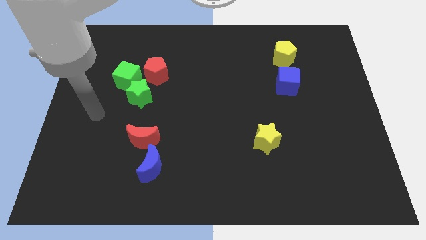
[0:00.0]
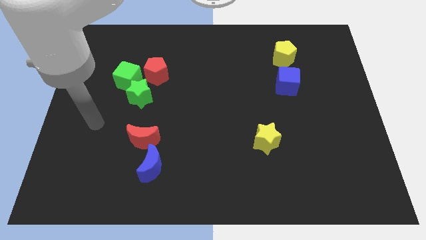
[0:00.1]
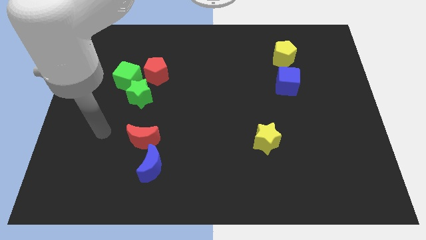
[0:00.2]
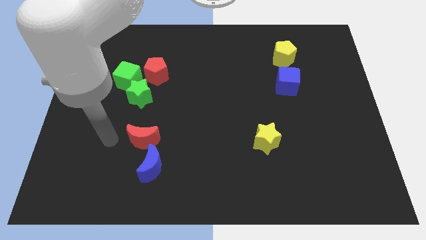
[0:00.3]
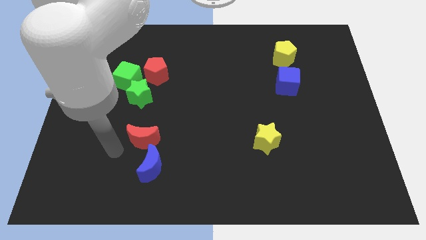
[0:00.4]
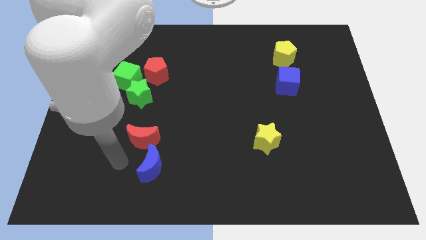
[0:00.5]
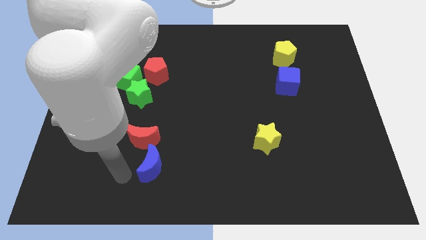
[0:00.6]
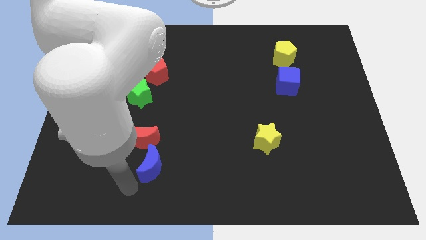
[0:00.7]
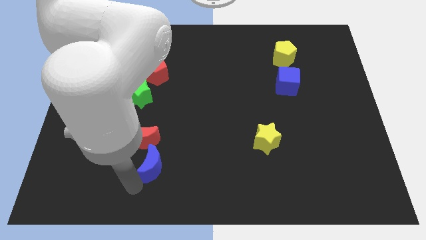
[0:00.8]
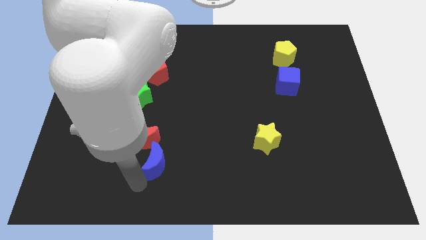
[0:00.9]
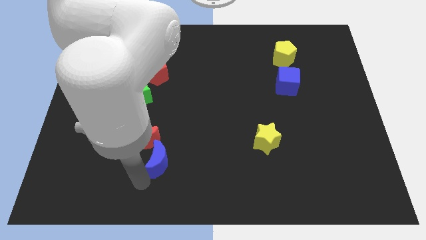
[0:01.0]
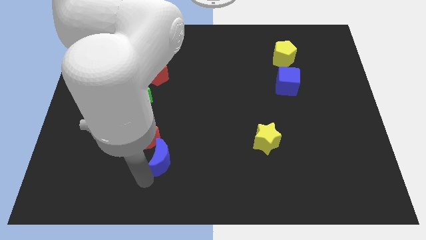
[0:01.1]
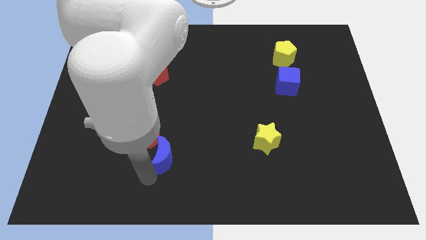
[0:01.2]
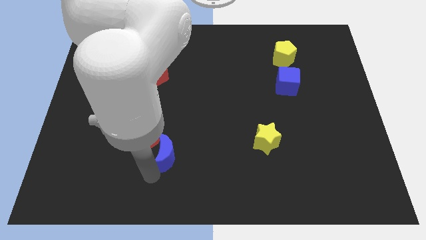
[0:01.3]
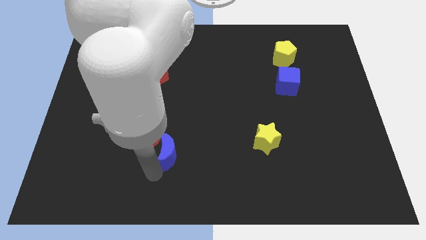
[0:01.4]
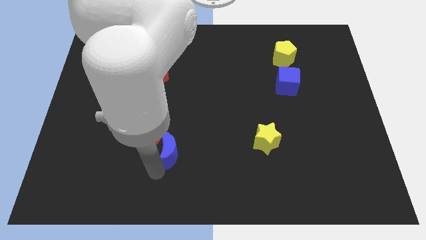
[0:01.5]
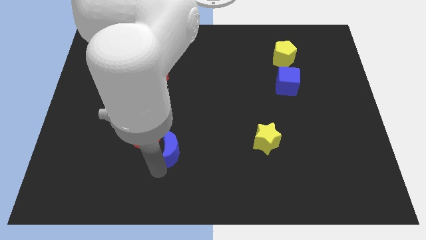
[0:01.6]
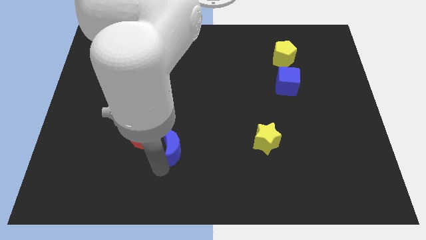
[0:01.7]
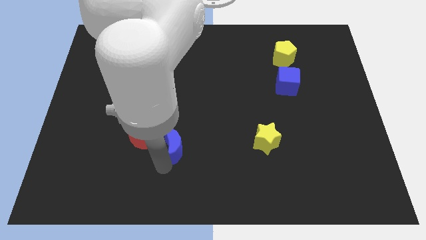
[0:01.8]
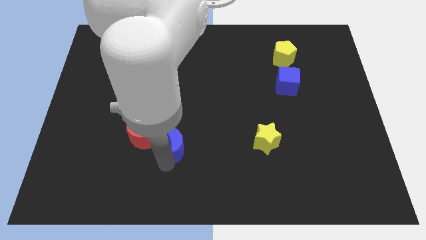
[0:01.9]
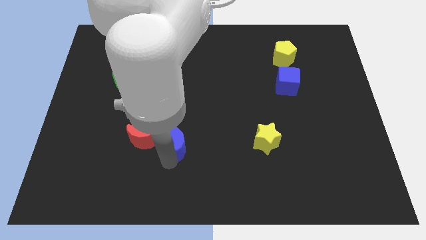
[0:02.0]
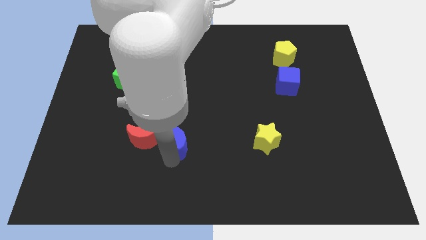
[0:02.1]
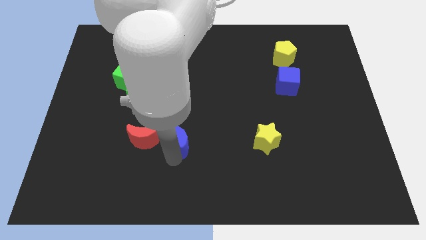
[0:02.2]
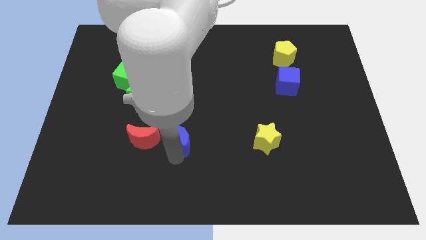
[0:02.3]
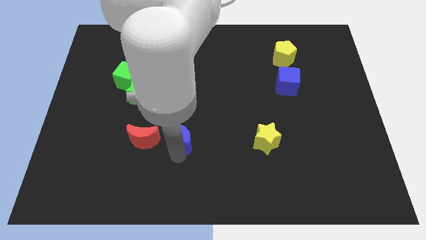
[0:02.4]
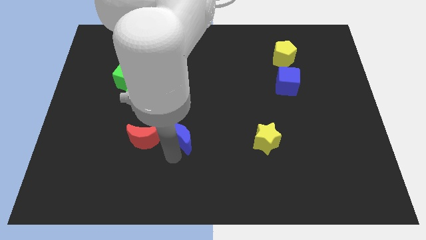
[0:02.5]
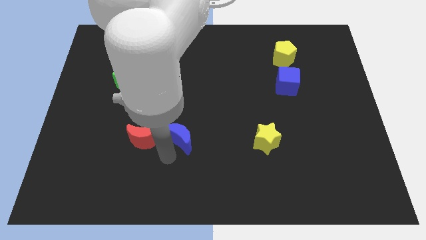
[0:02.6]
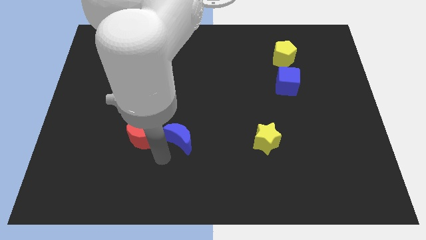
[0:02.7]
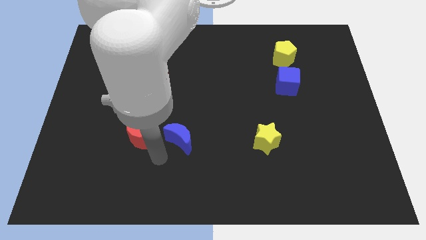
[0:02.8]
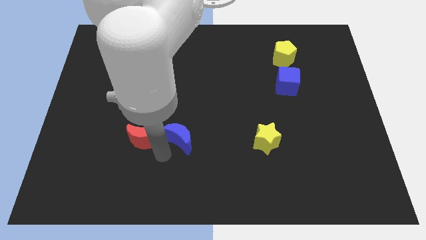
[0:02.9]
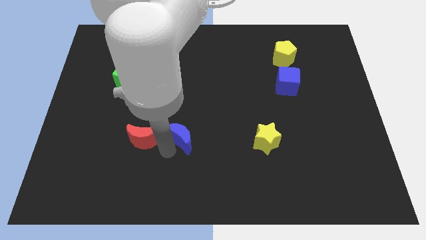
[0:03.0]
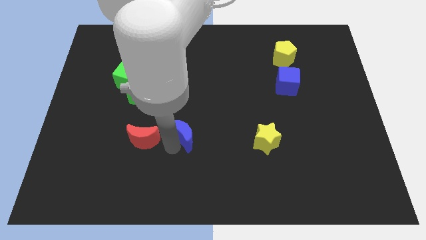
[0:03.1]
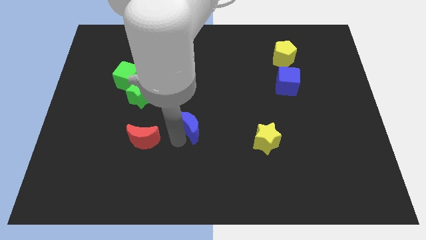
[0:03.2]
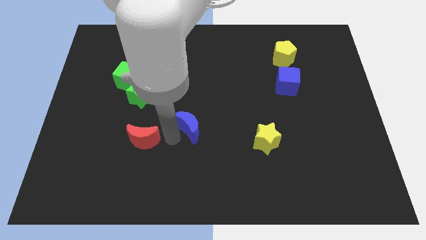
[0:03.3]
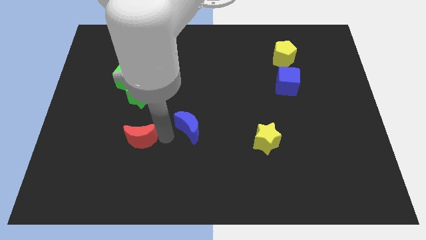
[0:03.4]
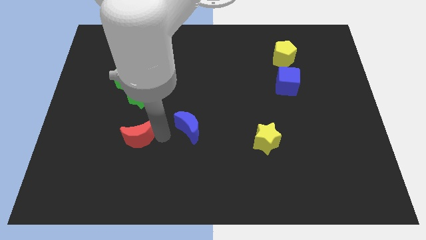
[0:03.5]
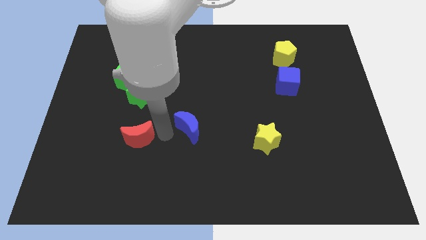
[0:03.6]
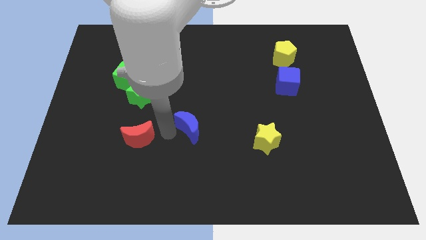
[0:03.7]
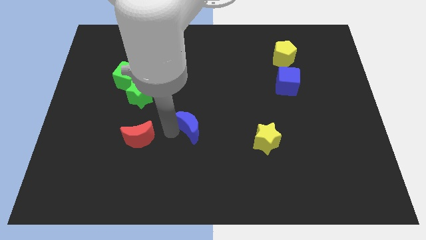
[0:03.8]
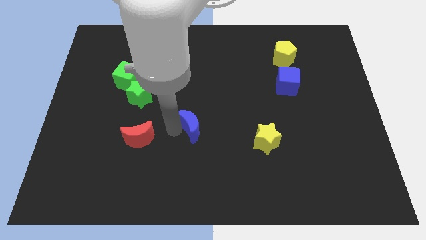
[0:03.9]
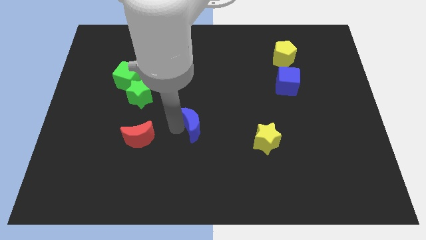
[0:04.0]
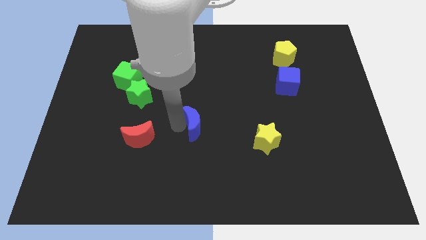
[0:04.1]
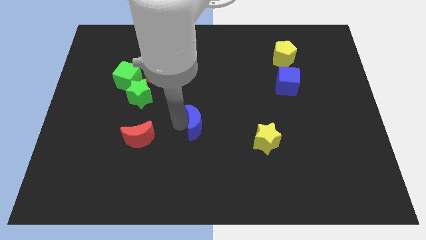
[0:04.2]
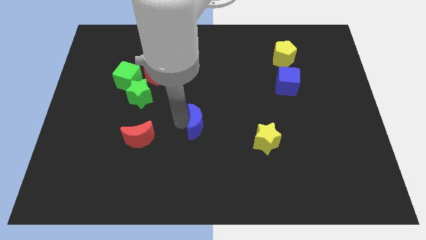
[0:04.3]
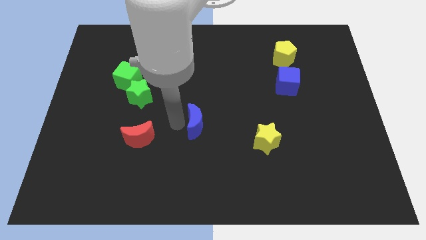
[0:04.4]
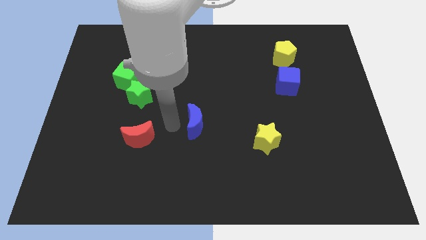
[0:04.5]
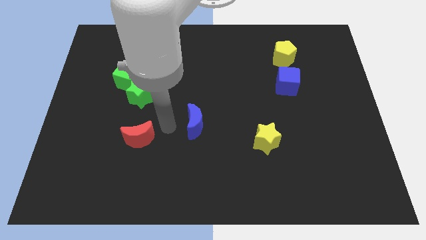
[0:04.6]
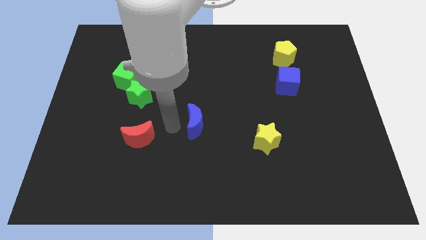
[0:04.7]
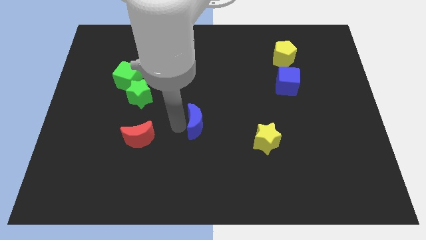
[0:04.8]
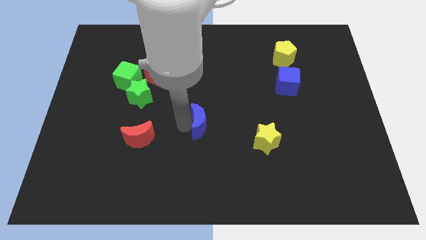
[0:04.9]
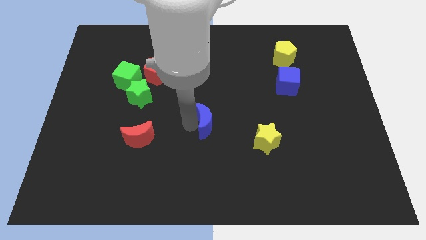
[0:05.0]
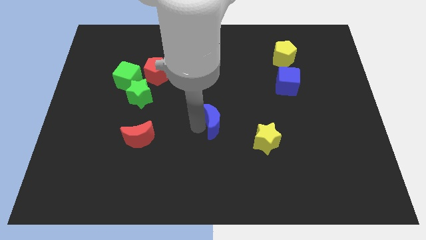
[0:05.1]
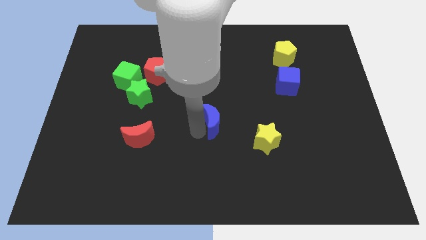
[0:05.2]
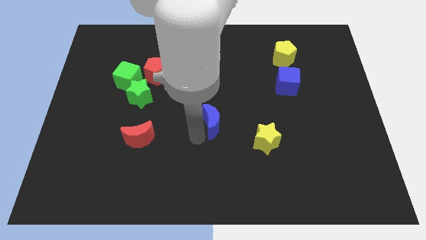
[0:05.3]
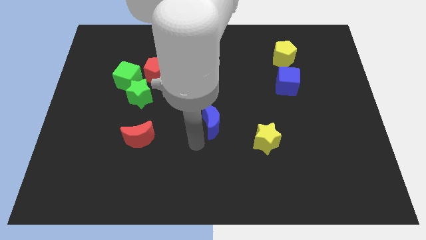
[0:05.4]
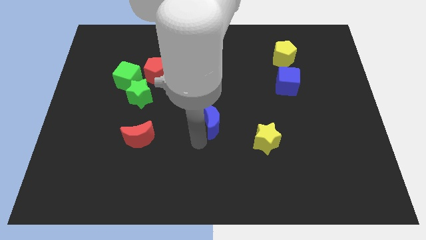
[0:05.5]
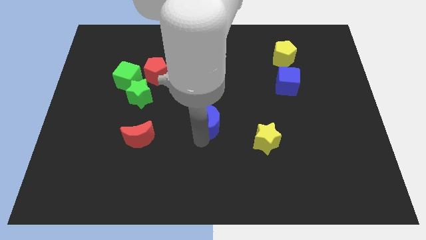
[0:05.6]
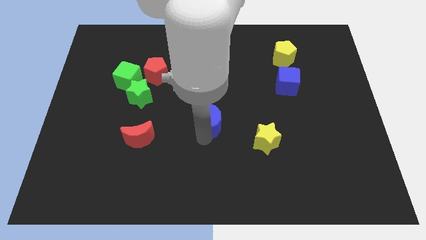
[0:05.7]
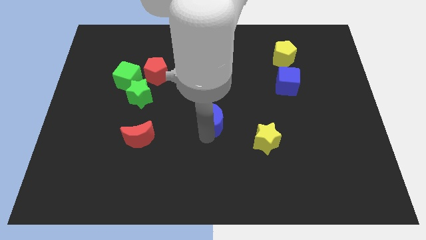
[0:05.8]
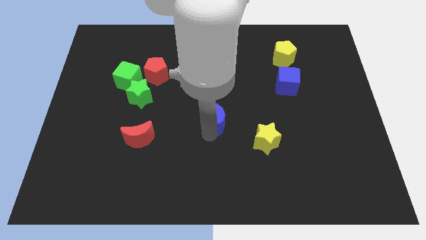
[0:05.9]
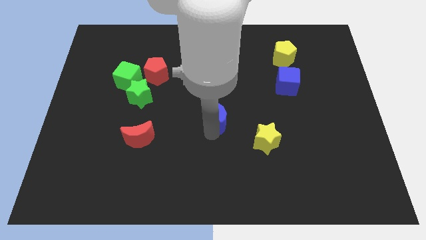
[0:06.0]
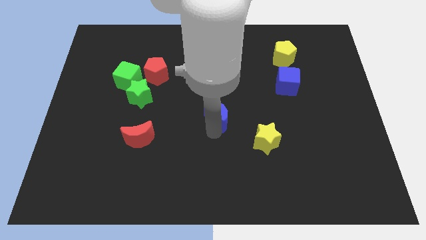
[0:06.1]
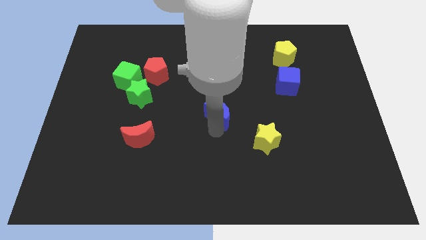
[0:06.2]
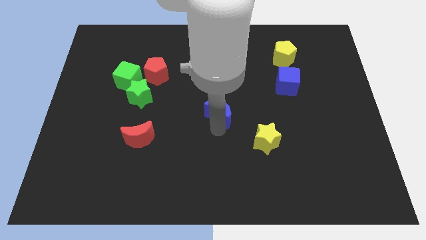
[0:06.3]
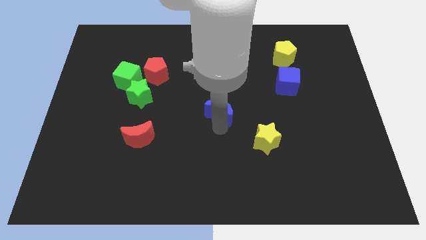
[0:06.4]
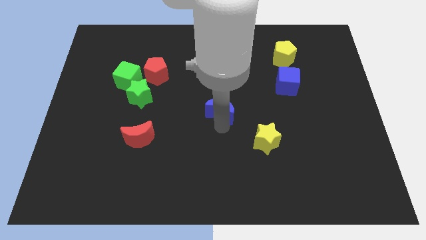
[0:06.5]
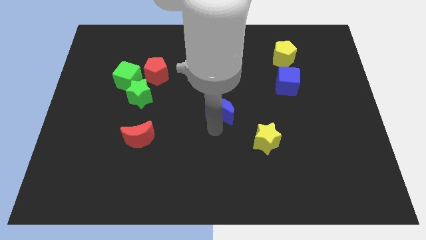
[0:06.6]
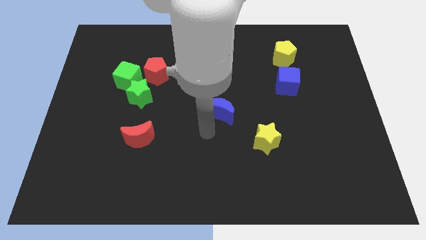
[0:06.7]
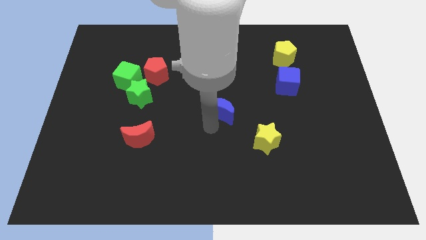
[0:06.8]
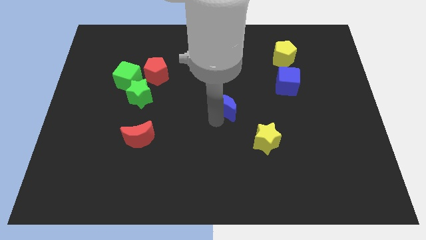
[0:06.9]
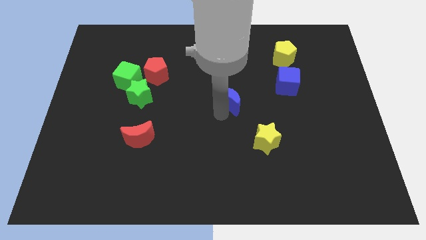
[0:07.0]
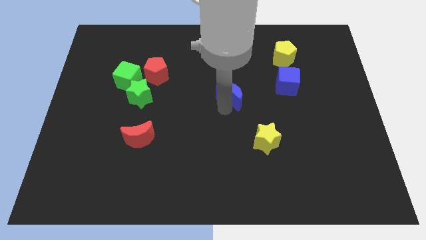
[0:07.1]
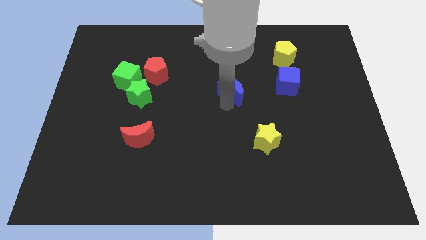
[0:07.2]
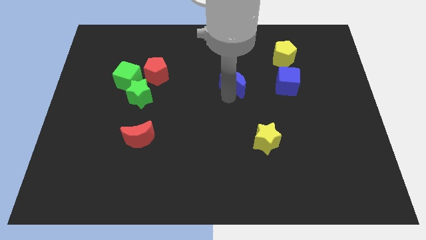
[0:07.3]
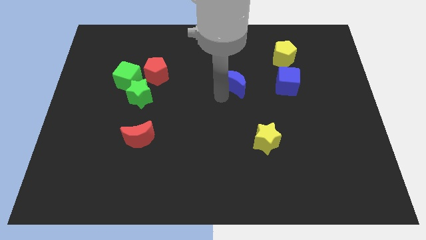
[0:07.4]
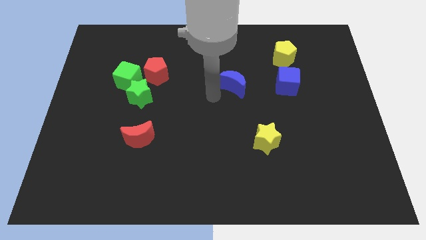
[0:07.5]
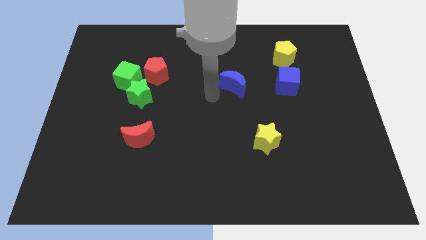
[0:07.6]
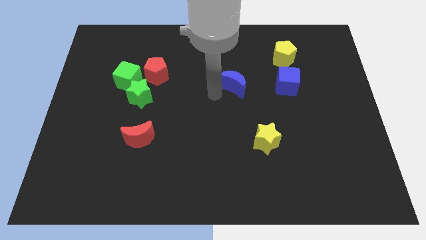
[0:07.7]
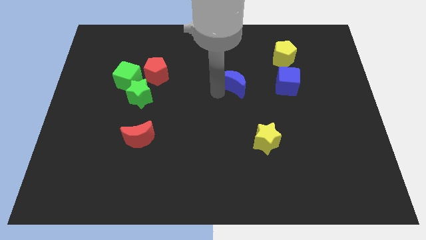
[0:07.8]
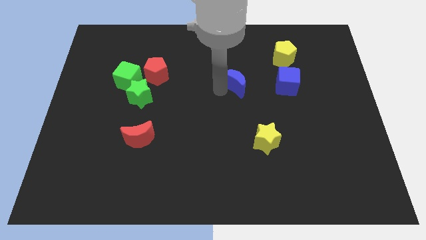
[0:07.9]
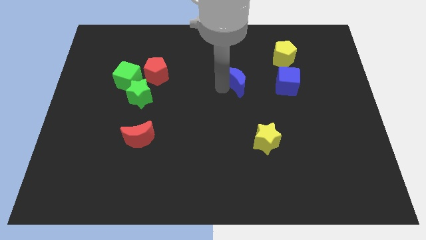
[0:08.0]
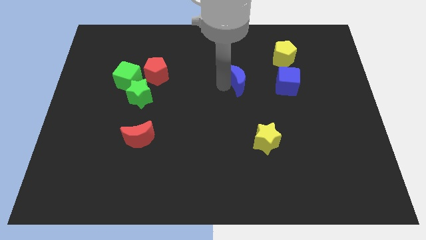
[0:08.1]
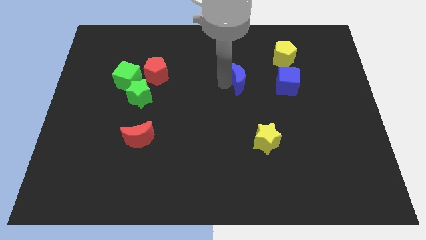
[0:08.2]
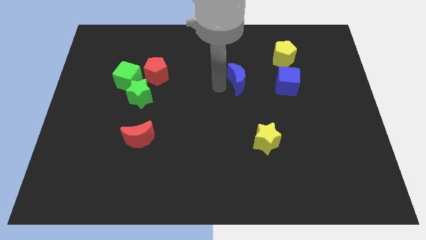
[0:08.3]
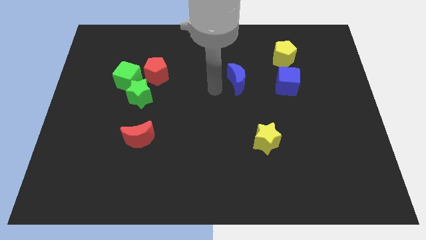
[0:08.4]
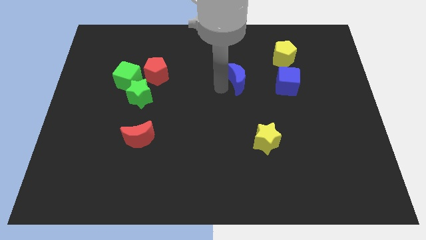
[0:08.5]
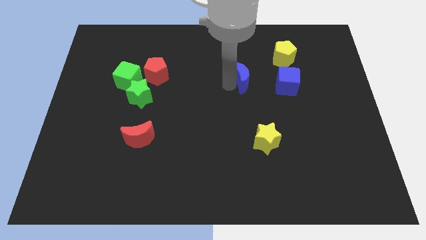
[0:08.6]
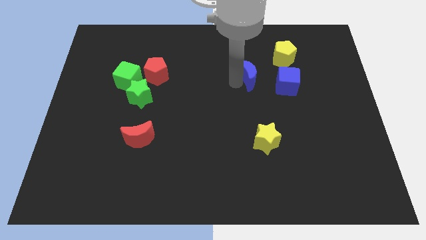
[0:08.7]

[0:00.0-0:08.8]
push the blue moon diagonally down and to the left of the yellow pentagon
